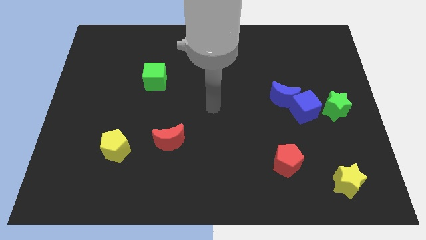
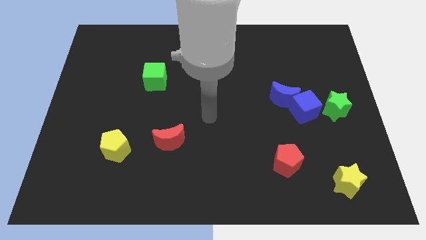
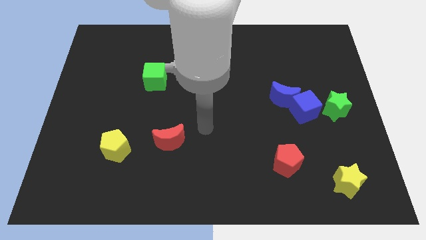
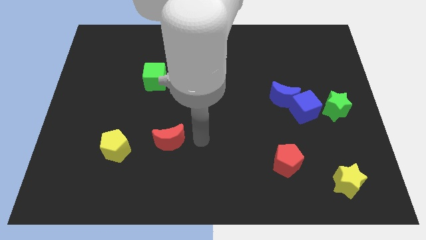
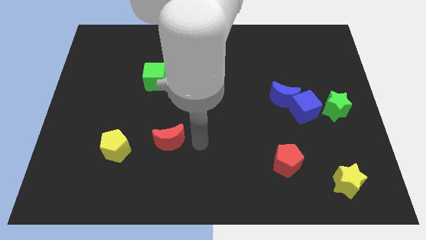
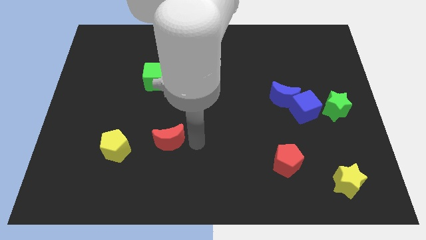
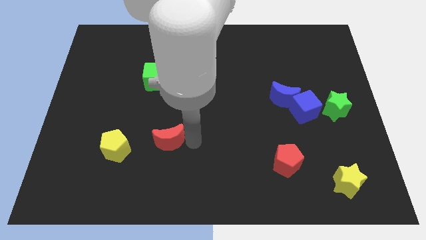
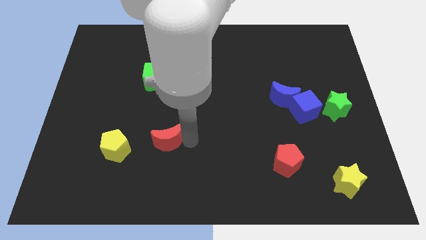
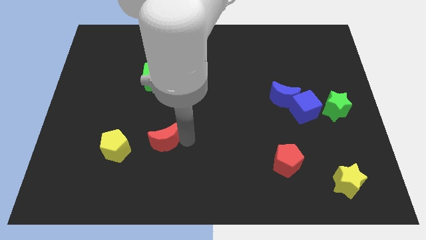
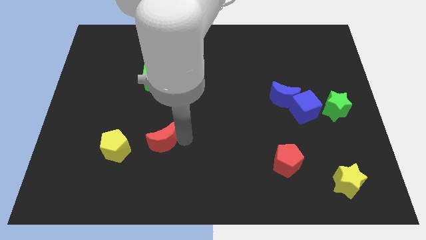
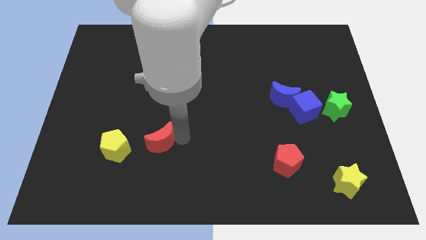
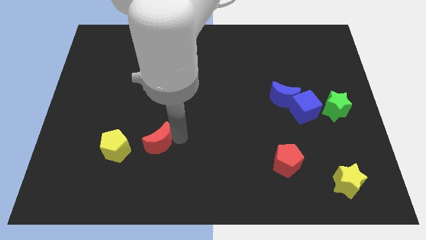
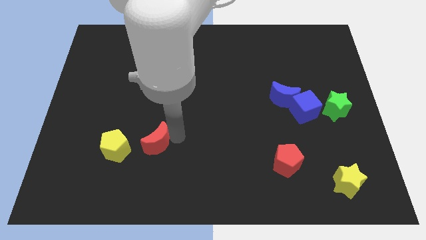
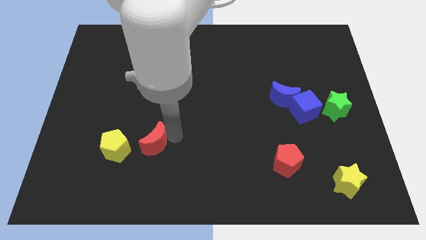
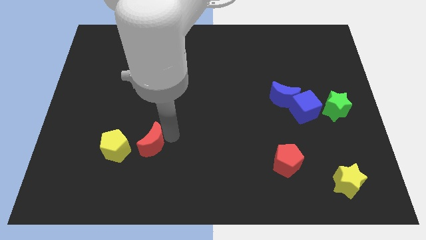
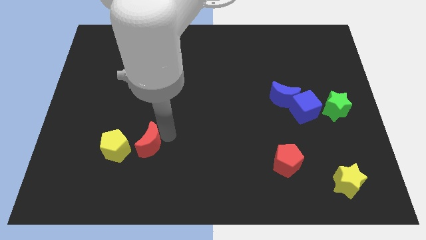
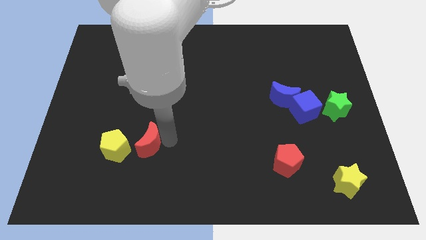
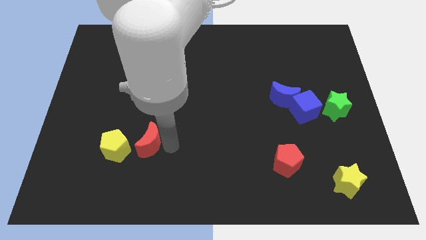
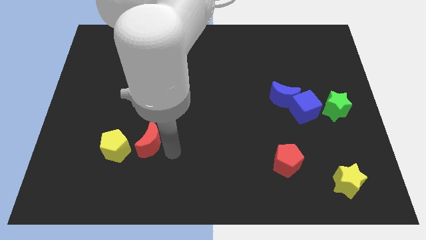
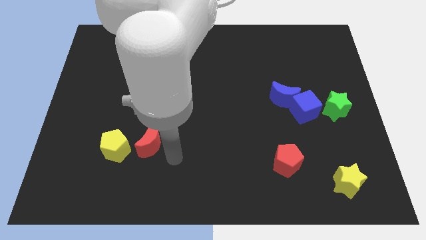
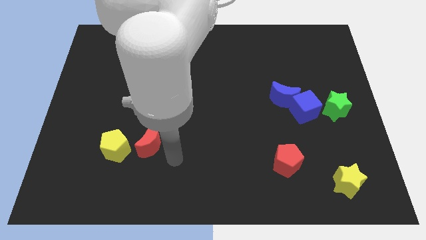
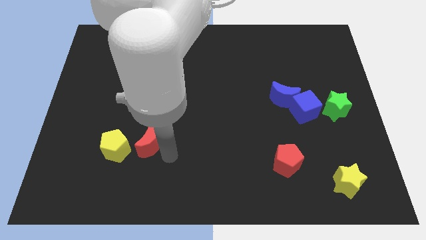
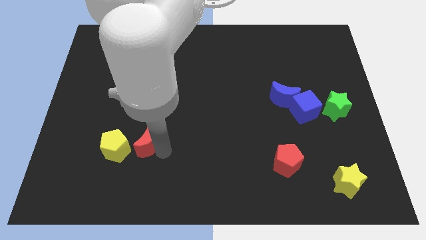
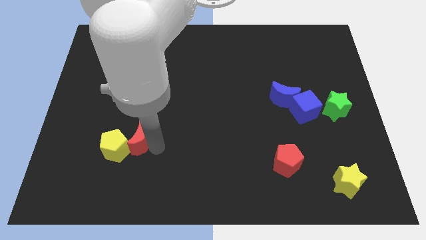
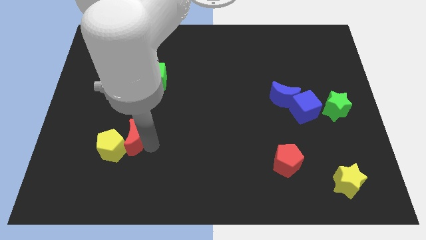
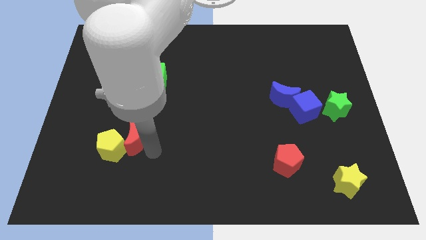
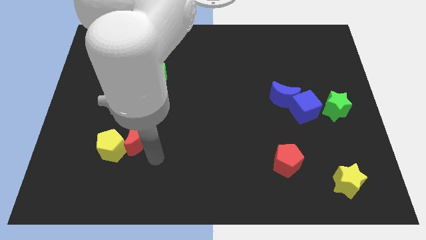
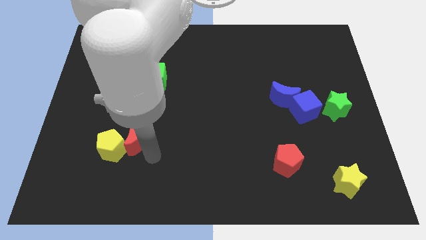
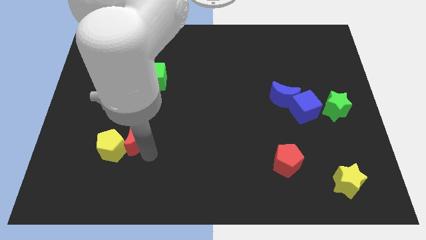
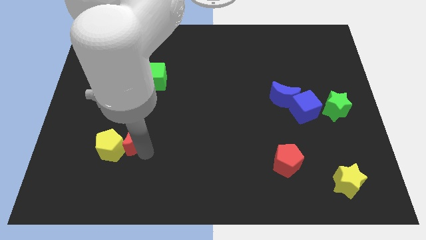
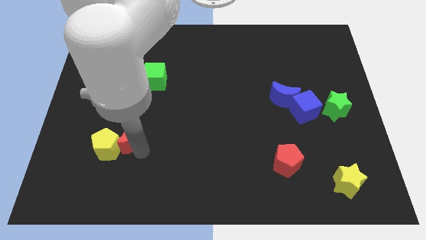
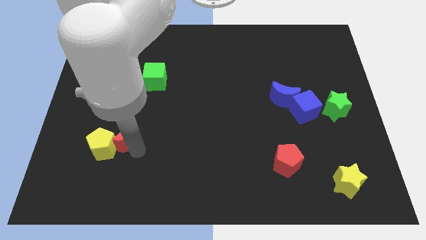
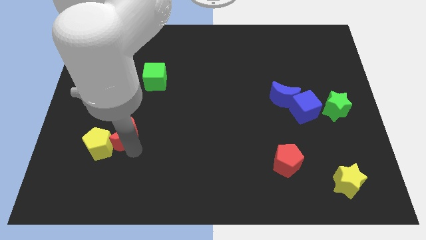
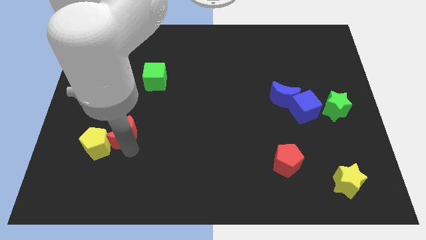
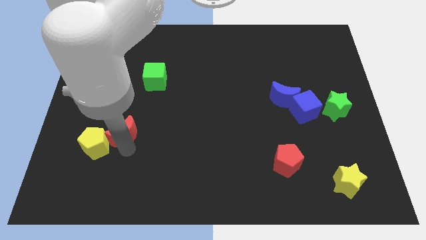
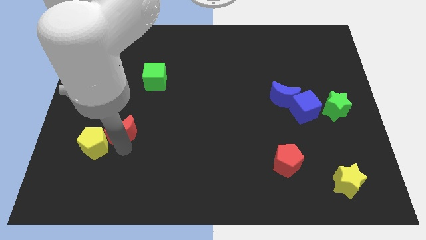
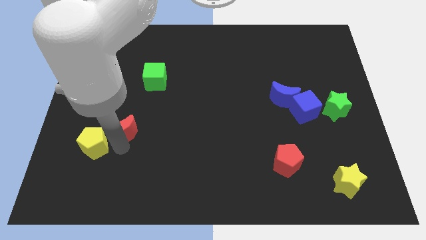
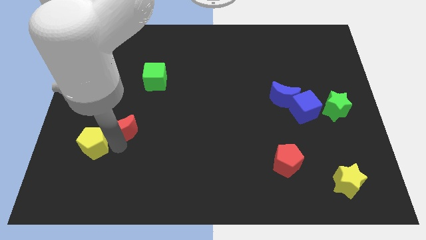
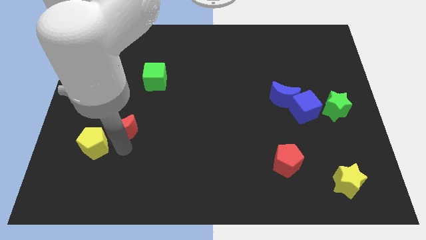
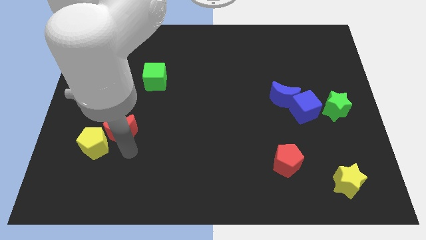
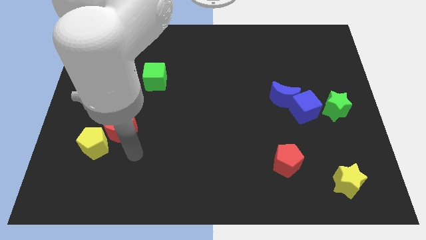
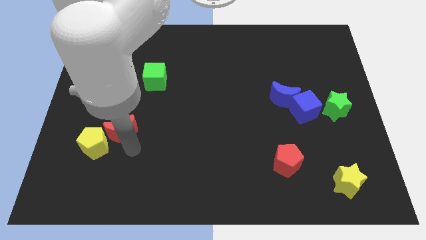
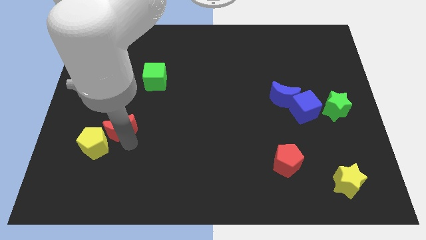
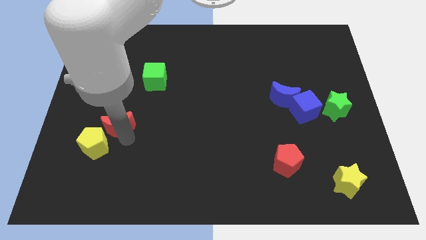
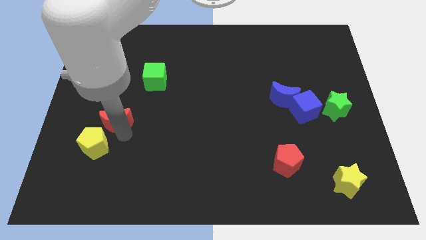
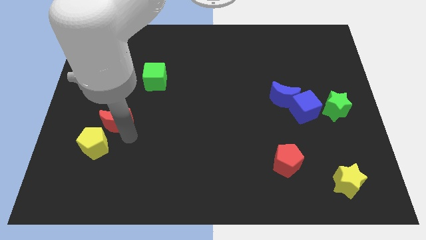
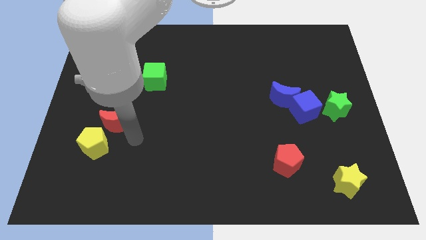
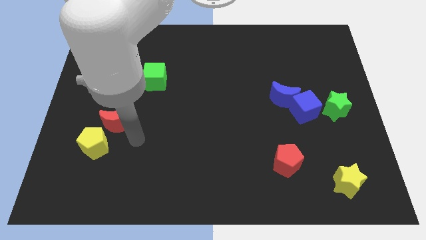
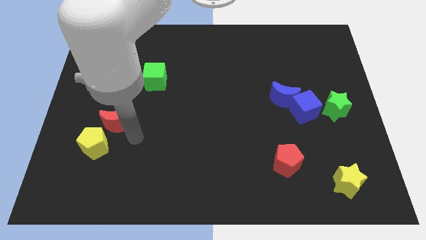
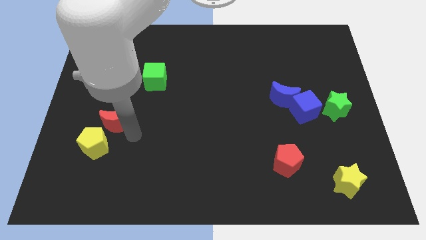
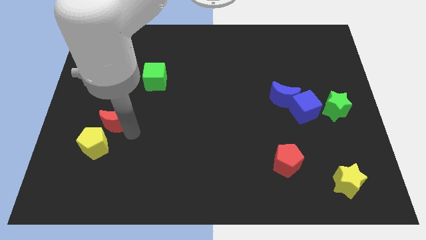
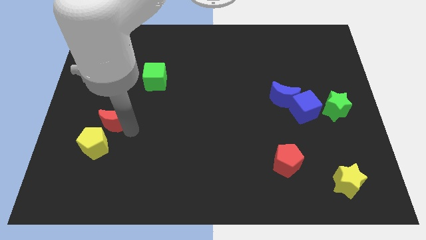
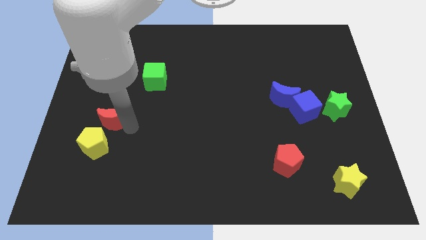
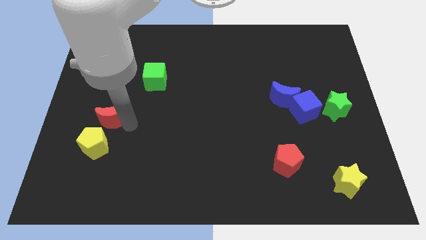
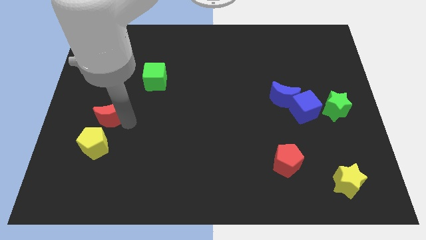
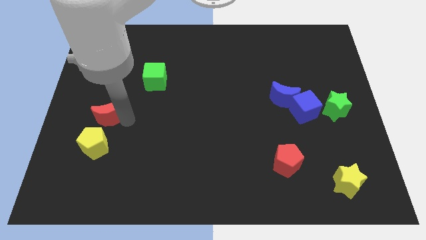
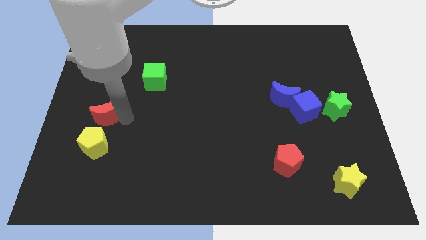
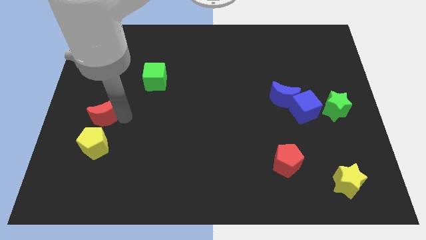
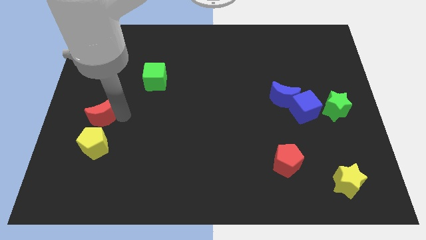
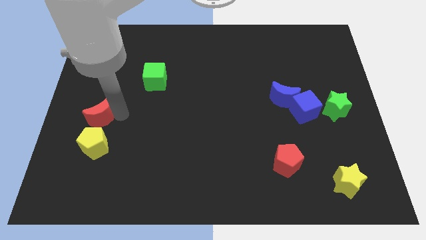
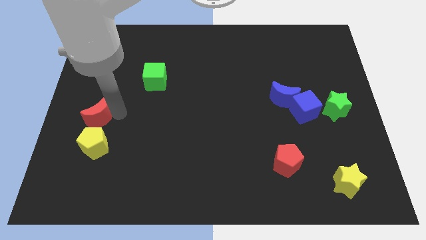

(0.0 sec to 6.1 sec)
put the red moon to the left side
